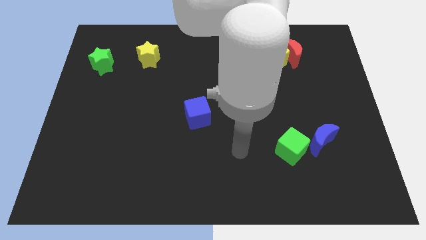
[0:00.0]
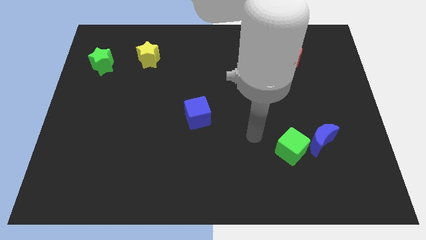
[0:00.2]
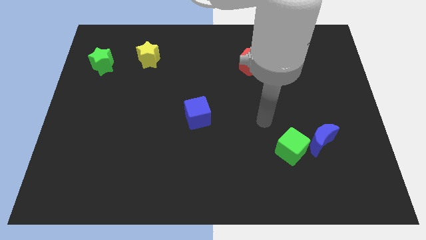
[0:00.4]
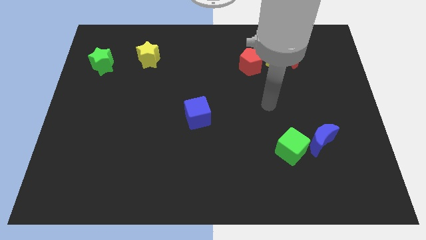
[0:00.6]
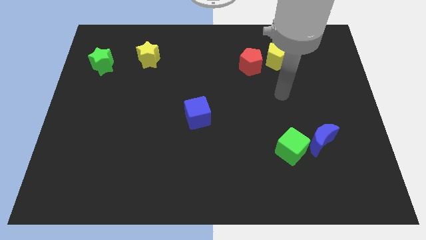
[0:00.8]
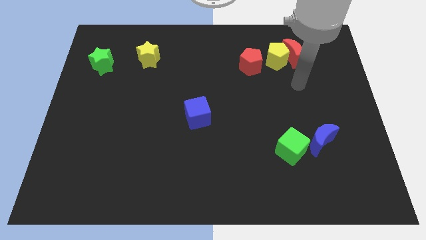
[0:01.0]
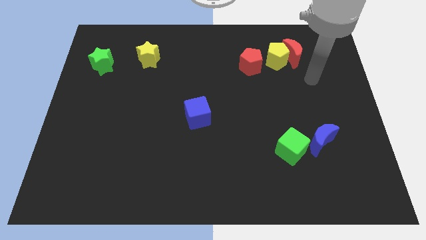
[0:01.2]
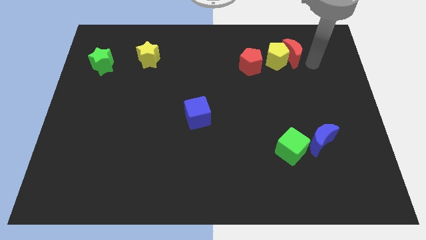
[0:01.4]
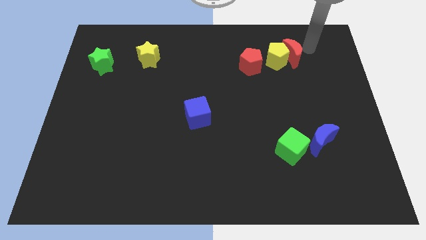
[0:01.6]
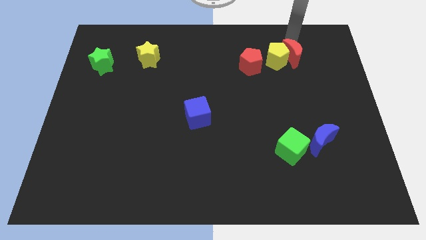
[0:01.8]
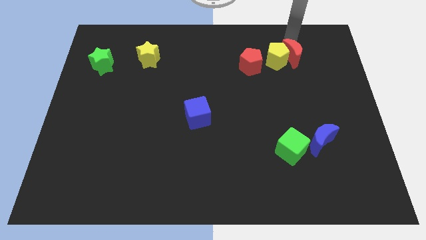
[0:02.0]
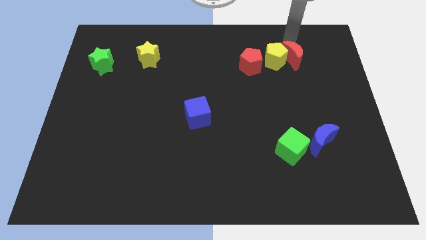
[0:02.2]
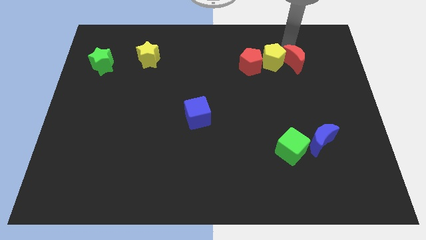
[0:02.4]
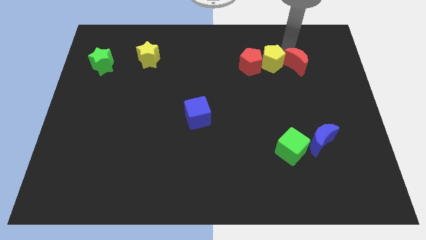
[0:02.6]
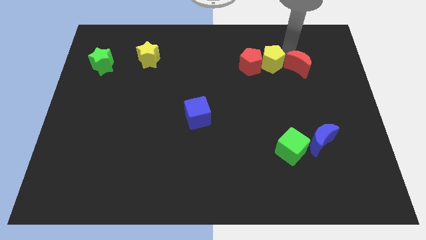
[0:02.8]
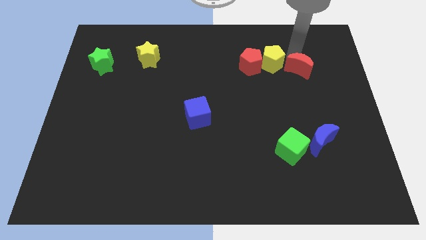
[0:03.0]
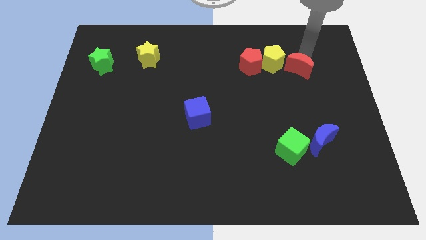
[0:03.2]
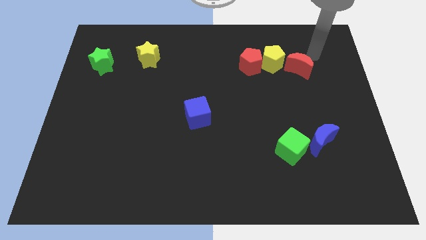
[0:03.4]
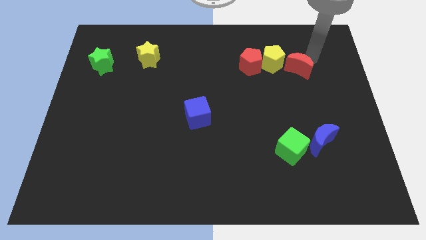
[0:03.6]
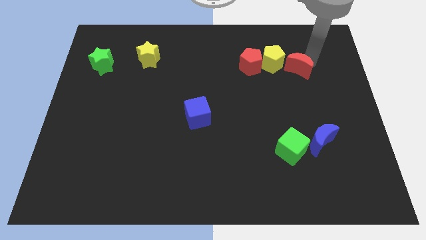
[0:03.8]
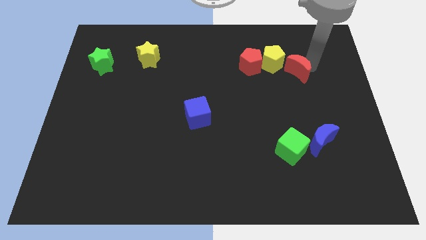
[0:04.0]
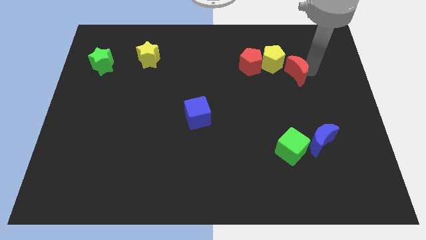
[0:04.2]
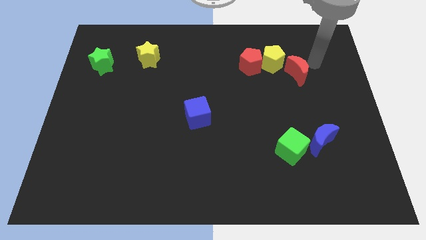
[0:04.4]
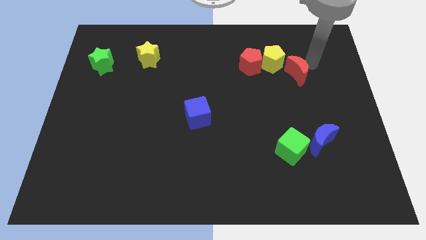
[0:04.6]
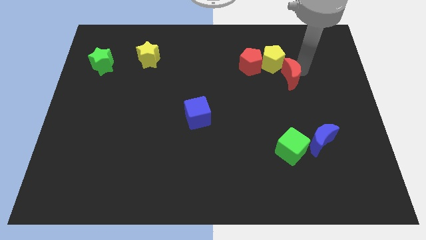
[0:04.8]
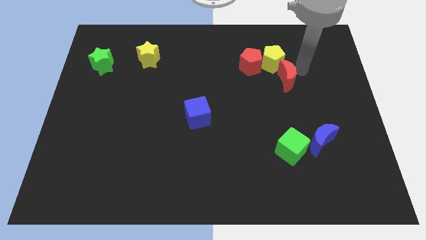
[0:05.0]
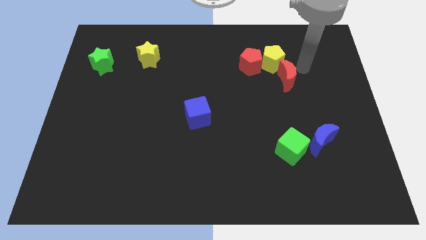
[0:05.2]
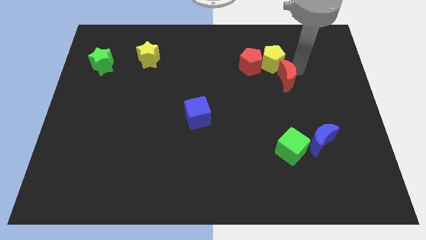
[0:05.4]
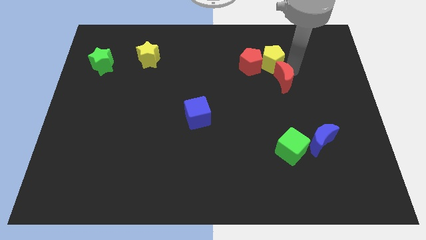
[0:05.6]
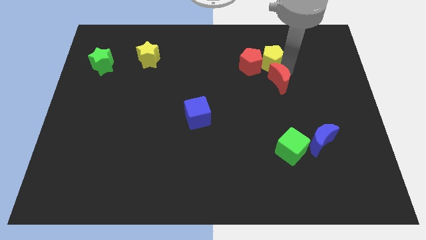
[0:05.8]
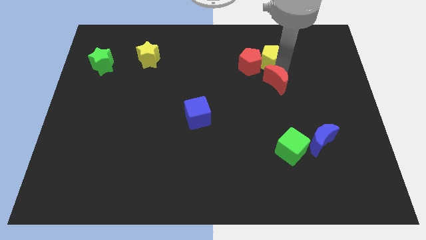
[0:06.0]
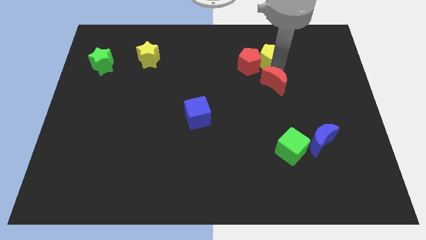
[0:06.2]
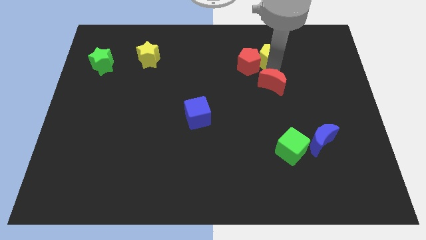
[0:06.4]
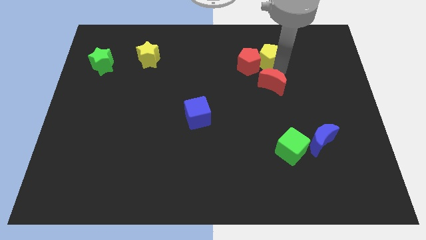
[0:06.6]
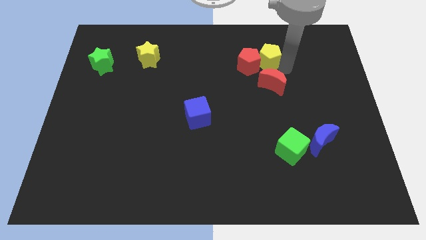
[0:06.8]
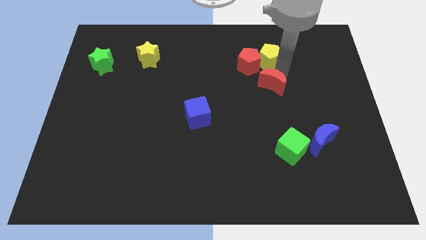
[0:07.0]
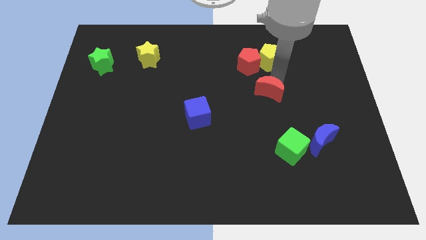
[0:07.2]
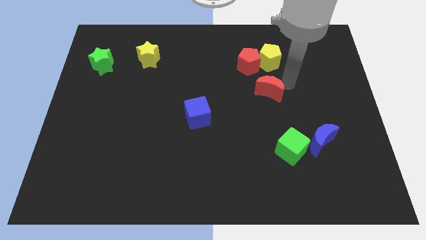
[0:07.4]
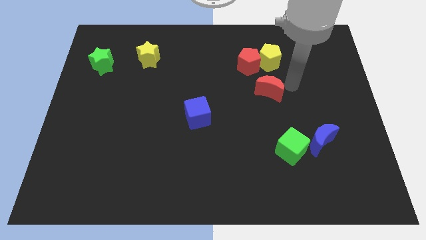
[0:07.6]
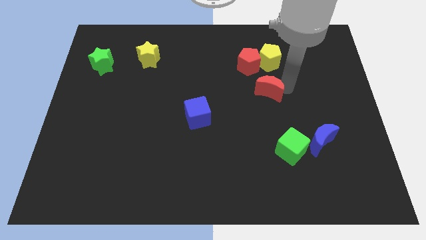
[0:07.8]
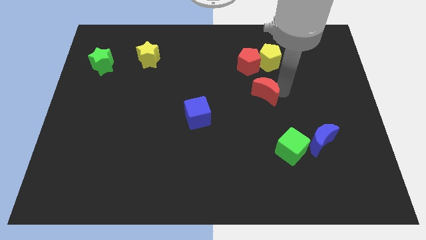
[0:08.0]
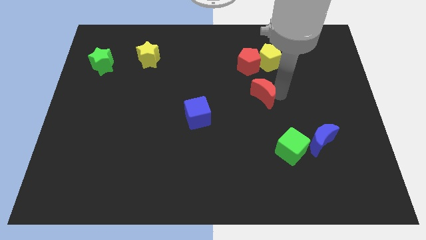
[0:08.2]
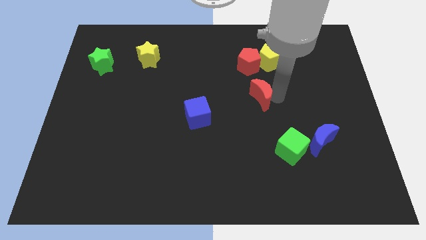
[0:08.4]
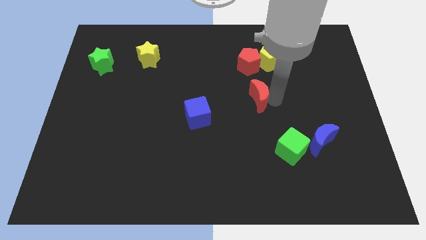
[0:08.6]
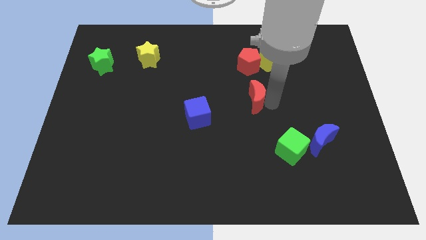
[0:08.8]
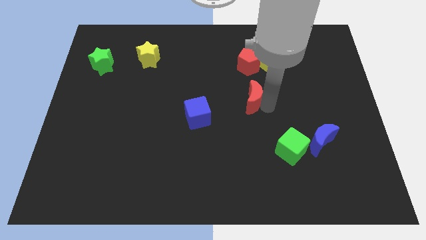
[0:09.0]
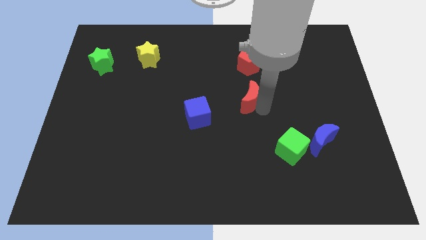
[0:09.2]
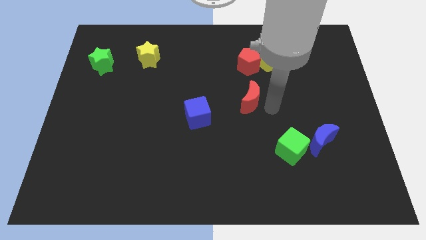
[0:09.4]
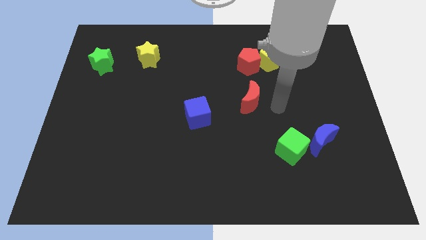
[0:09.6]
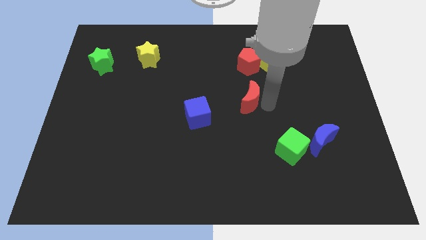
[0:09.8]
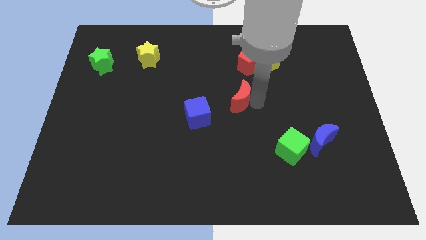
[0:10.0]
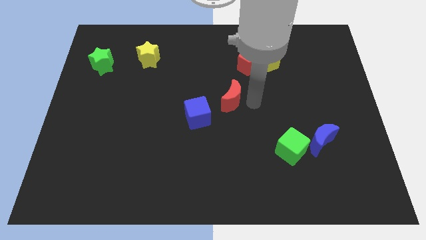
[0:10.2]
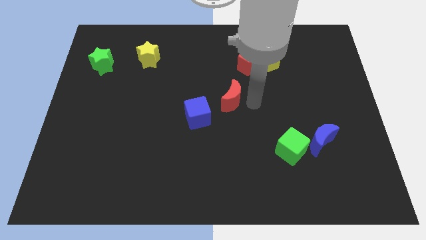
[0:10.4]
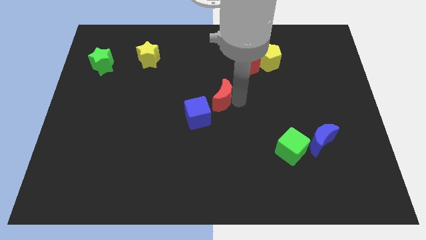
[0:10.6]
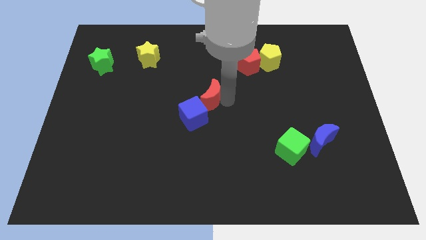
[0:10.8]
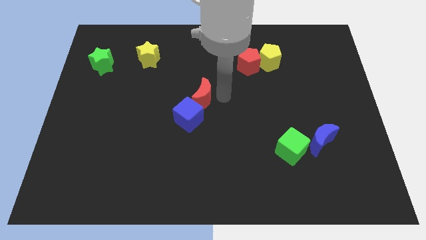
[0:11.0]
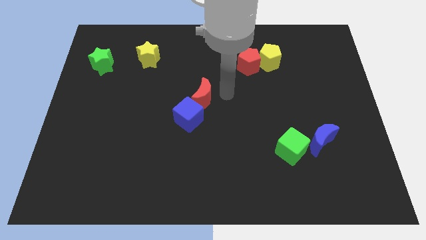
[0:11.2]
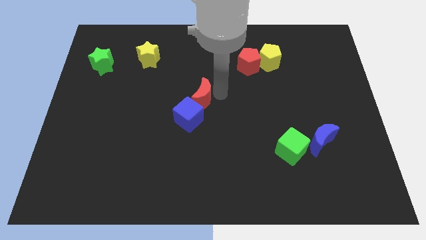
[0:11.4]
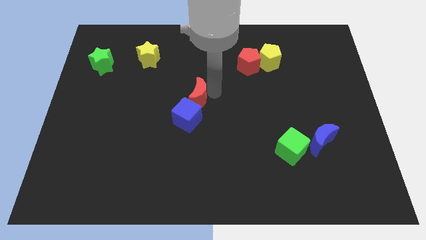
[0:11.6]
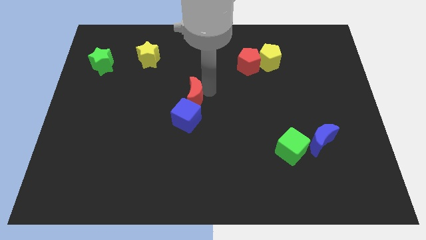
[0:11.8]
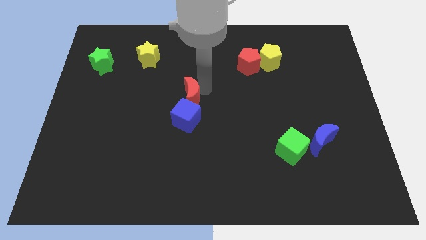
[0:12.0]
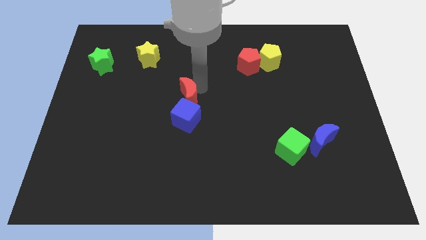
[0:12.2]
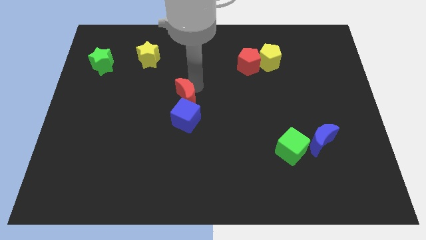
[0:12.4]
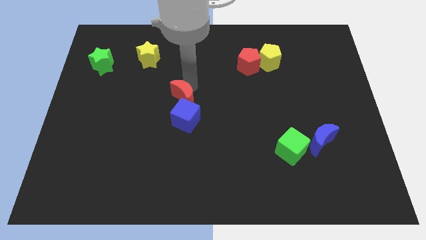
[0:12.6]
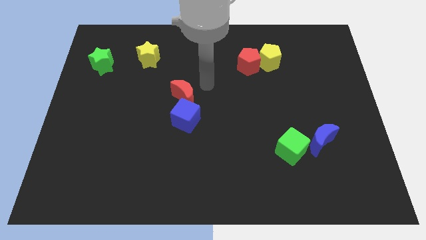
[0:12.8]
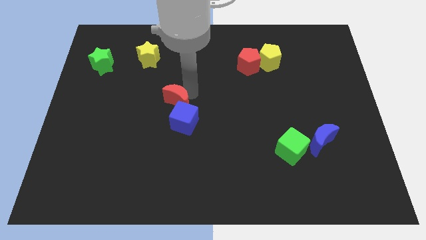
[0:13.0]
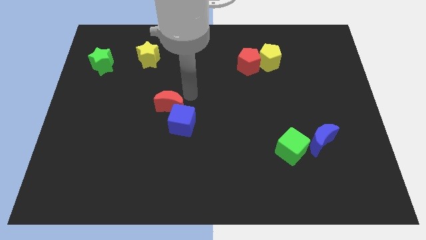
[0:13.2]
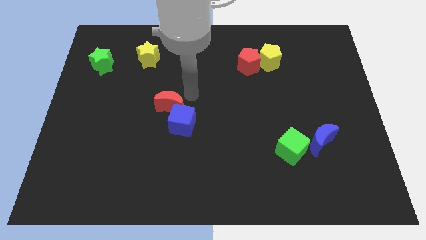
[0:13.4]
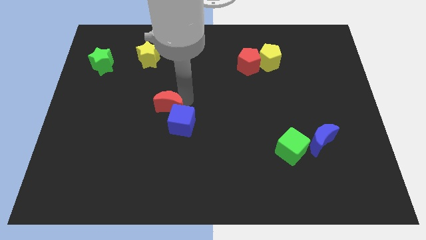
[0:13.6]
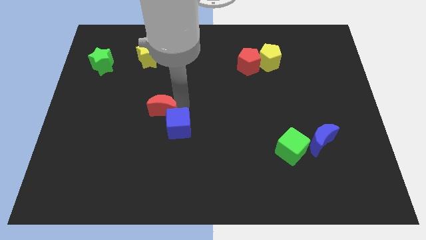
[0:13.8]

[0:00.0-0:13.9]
slide the red moon just left of the blue cube
